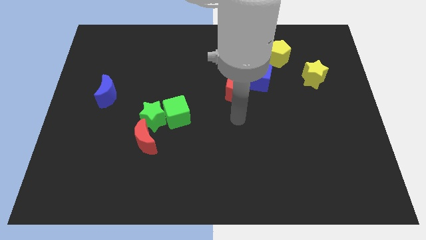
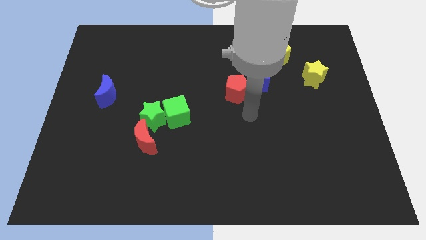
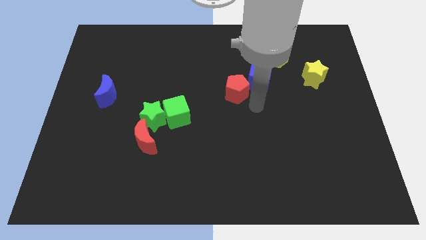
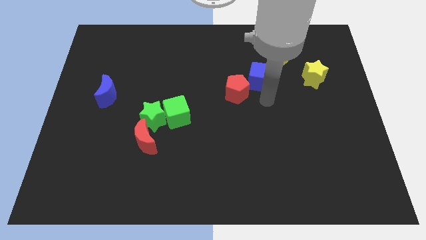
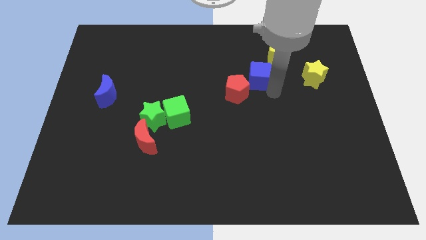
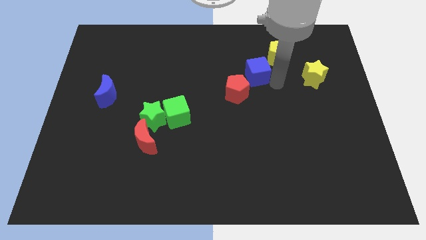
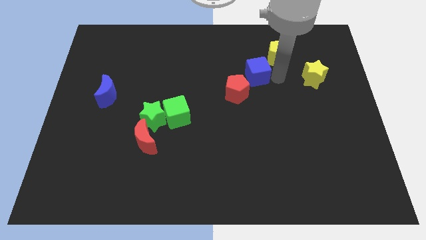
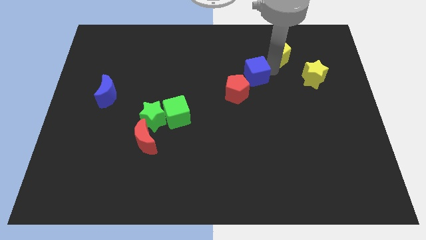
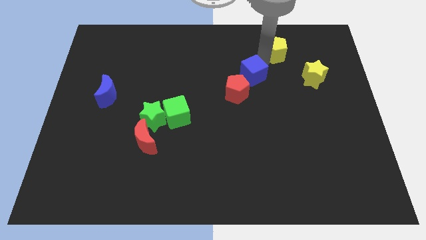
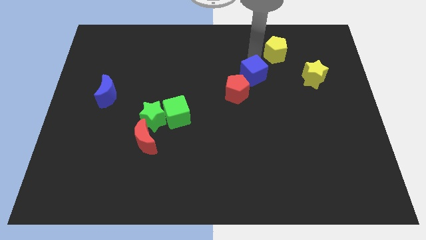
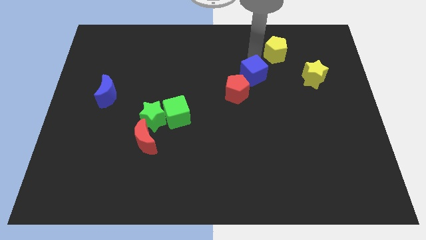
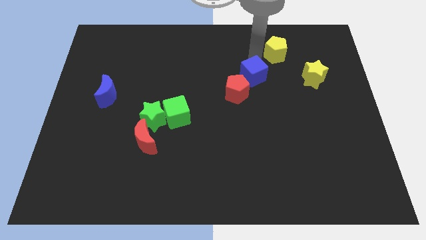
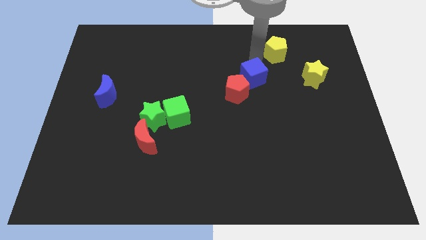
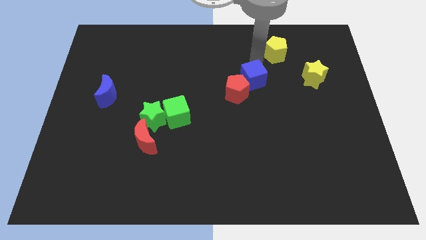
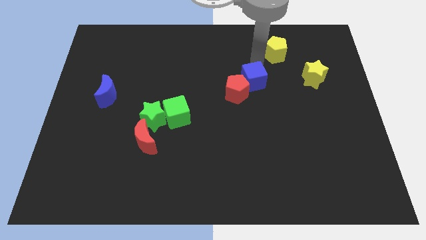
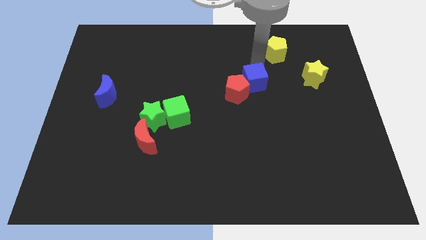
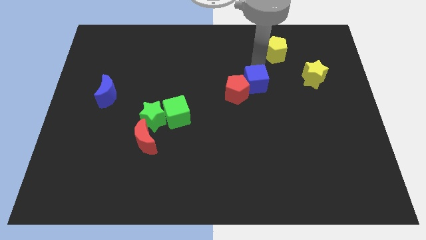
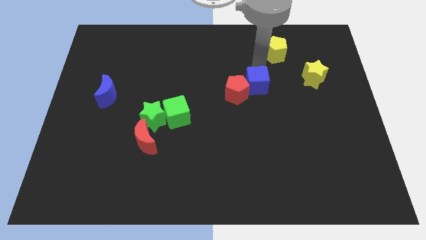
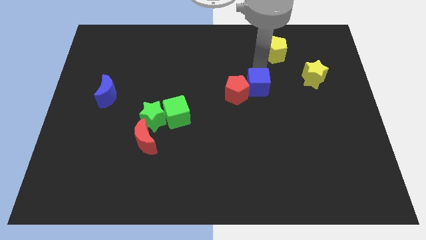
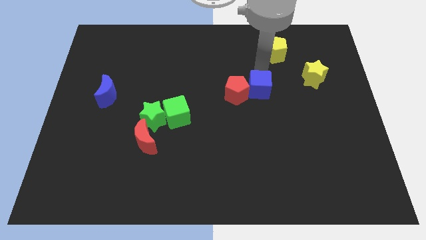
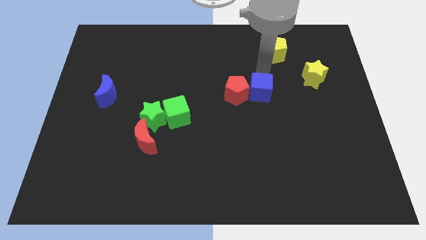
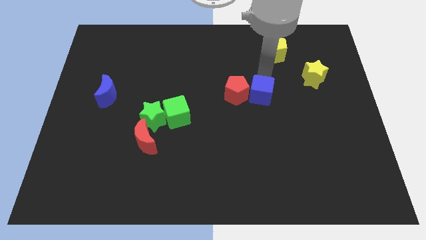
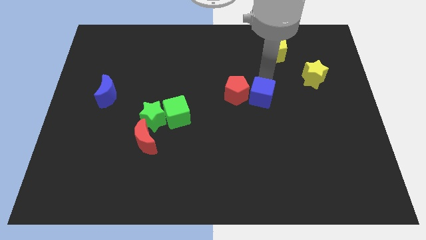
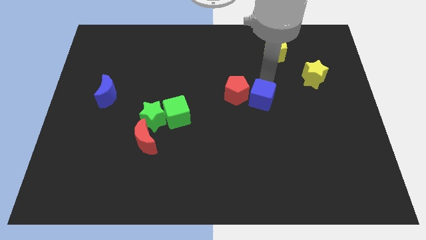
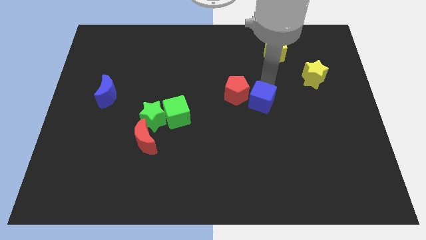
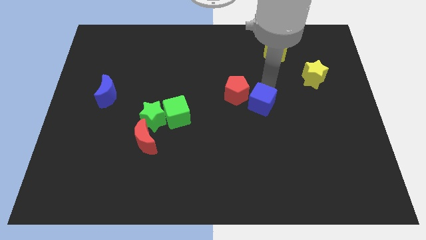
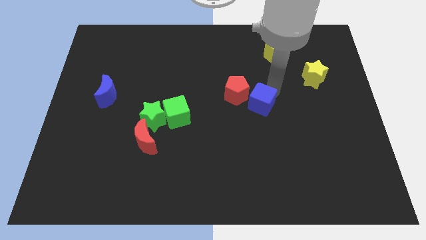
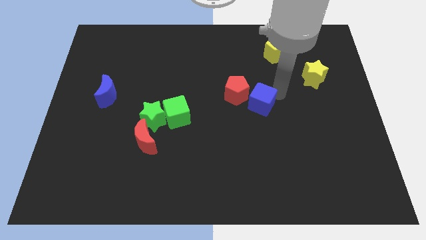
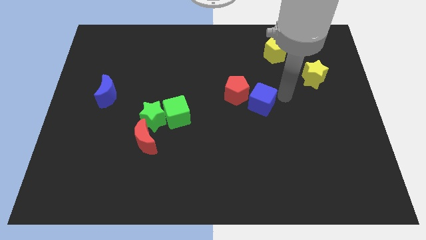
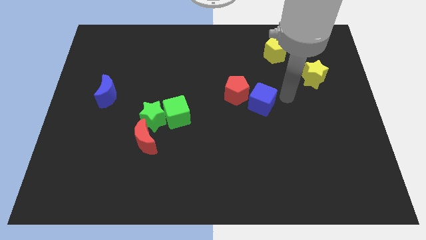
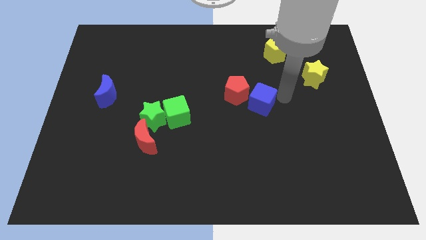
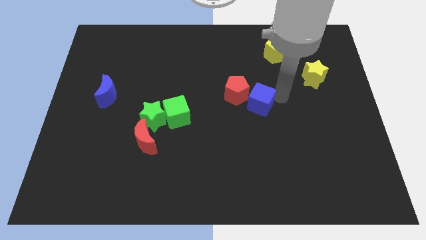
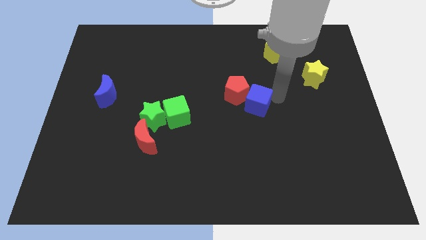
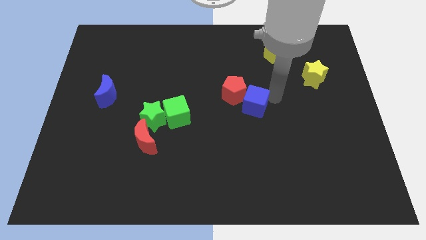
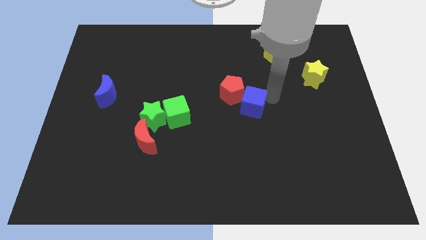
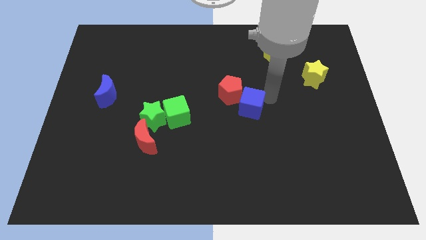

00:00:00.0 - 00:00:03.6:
move the blue cube downwards and then to the left a bit

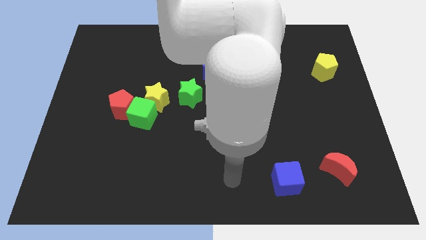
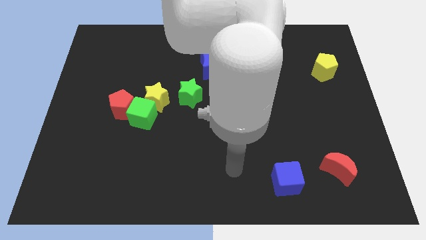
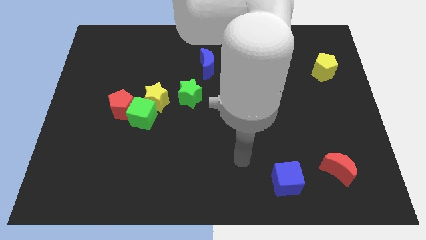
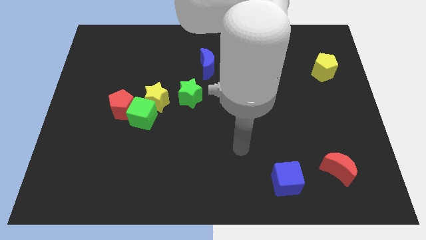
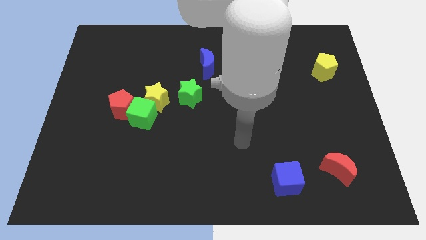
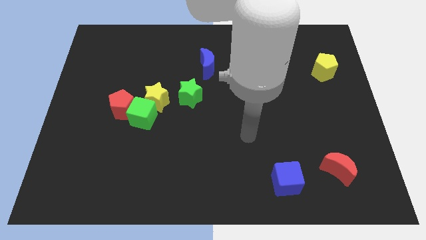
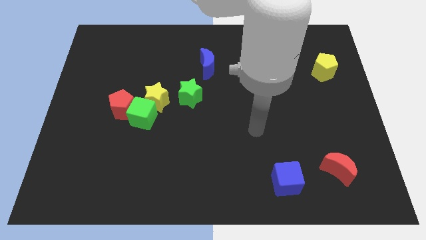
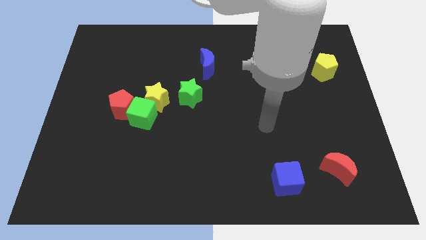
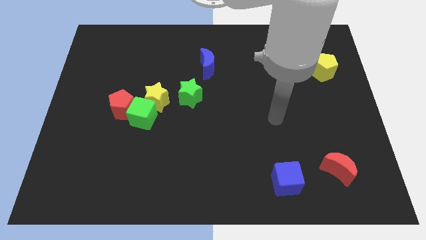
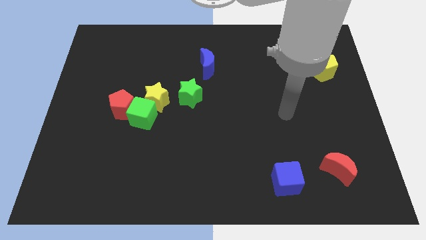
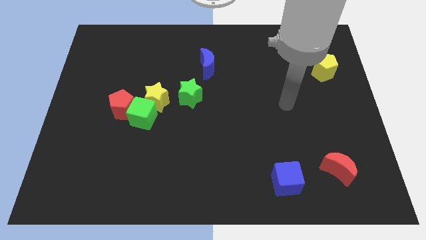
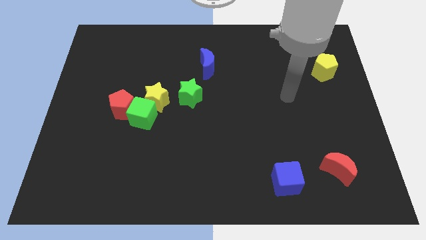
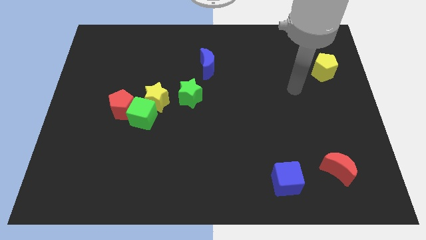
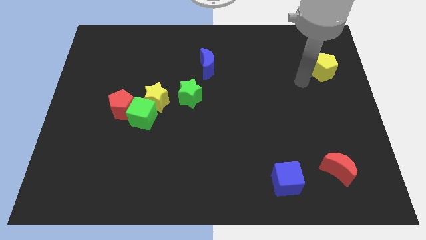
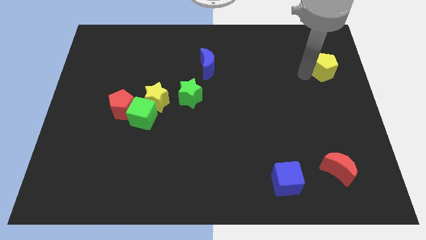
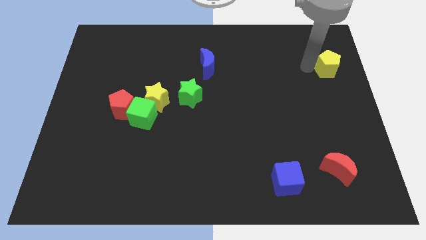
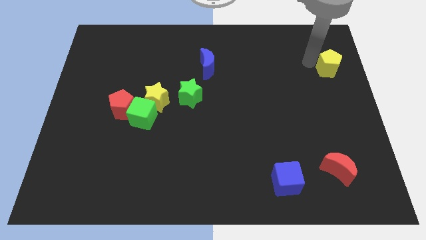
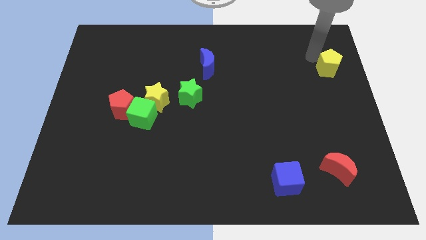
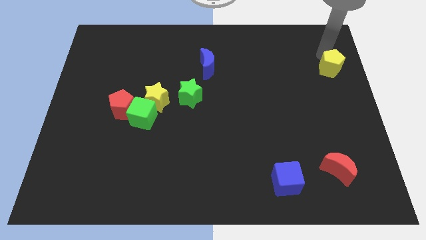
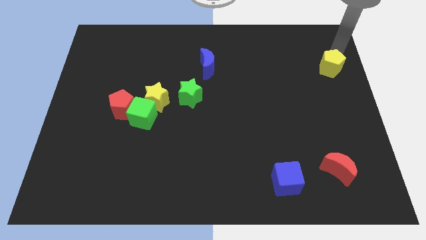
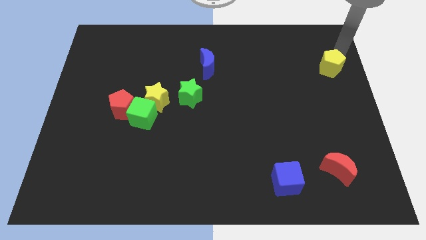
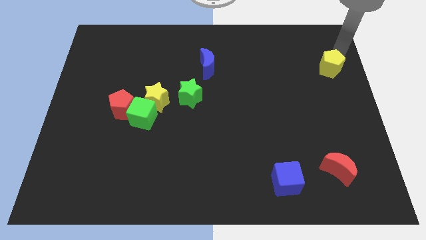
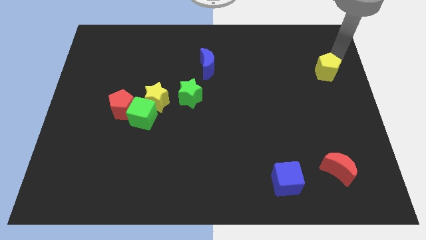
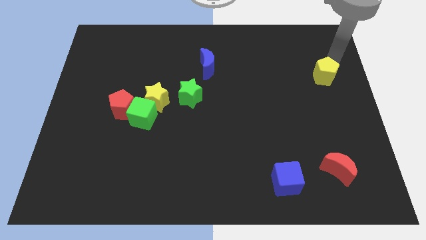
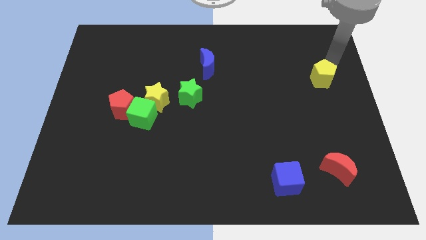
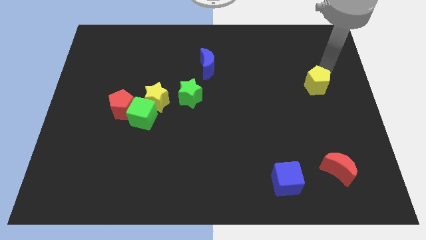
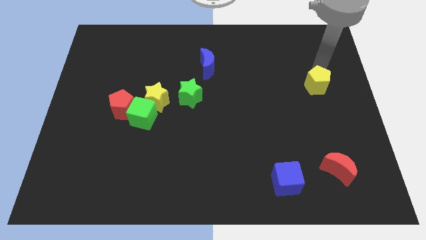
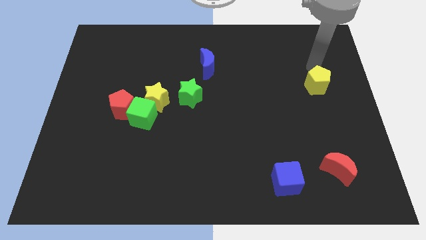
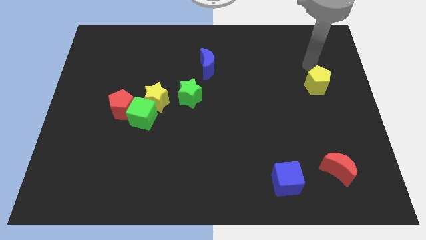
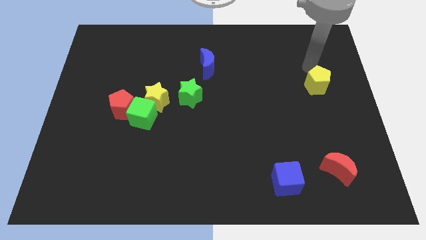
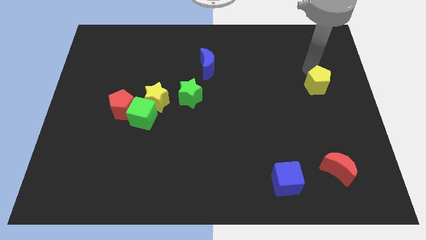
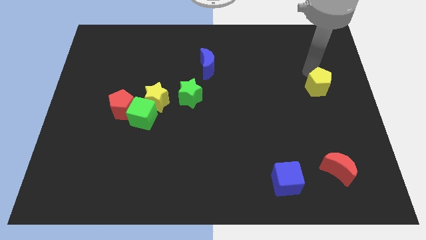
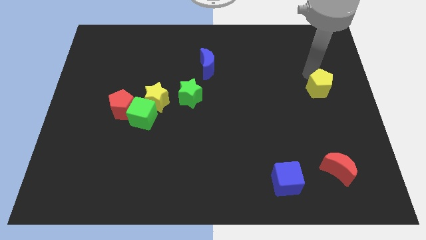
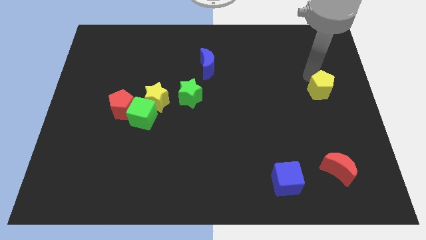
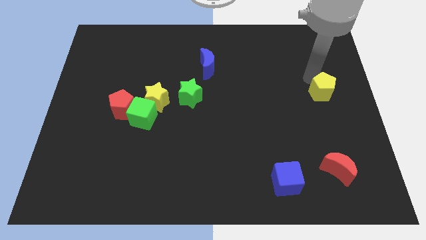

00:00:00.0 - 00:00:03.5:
move the yellow pentagon somewhat downwards
